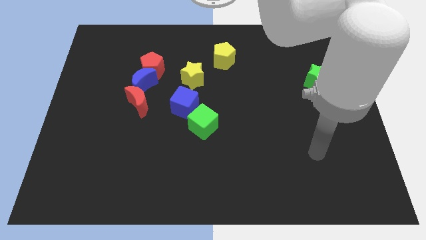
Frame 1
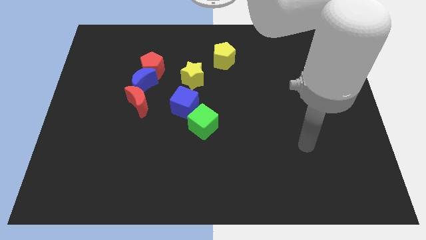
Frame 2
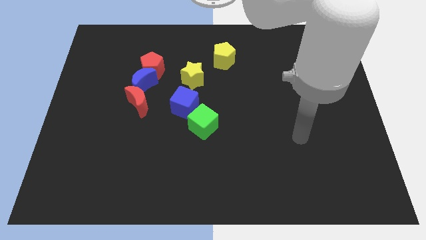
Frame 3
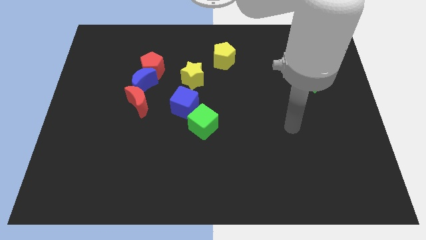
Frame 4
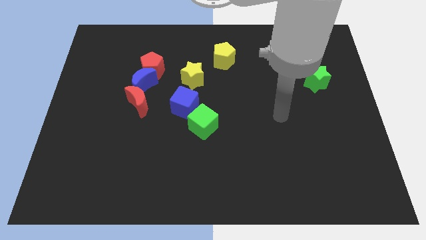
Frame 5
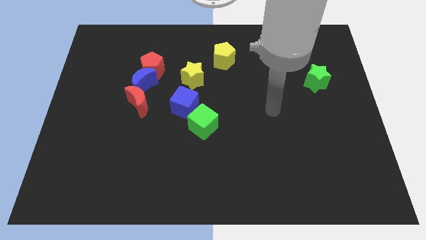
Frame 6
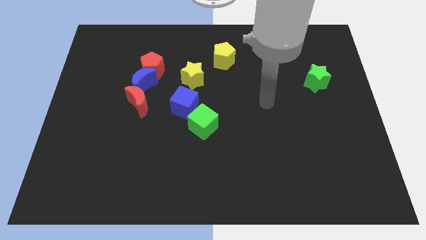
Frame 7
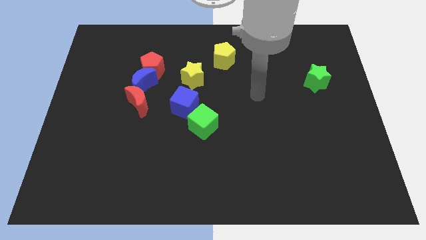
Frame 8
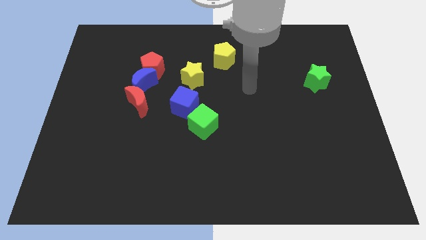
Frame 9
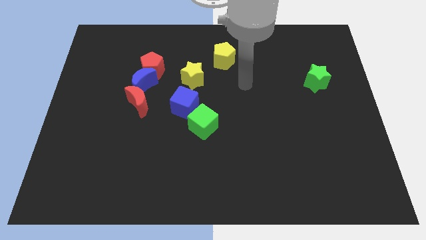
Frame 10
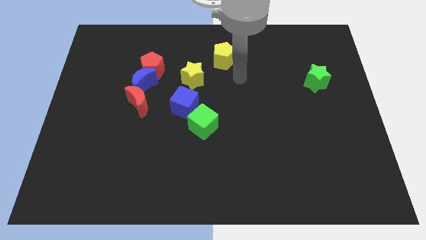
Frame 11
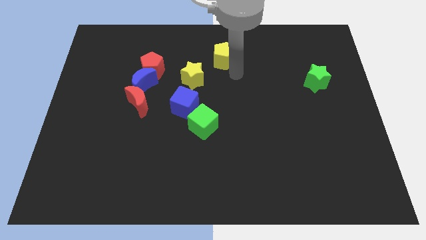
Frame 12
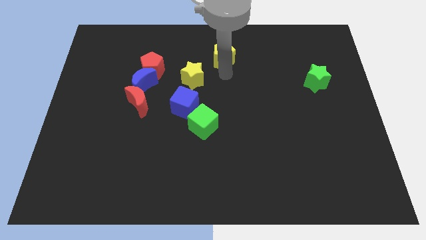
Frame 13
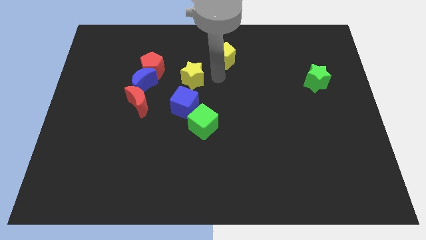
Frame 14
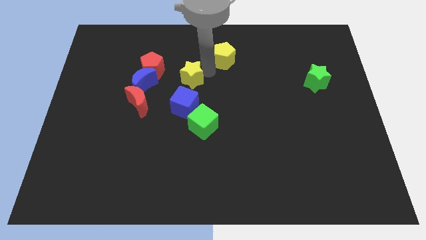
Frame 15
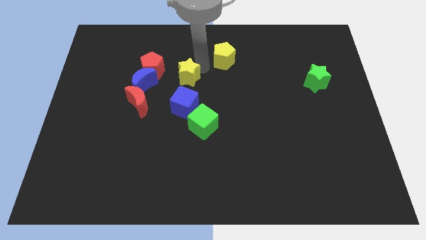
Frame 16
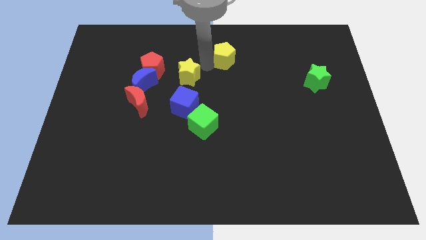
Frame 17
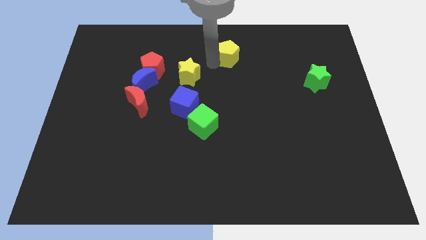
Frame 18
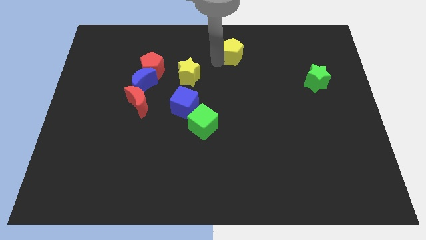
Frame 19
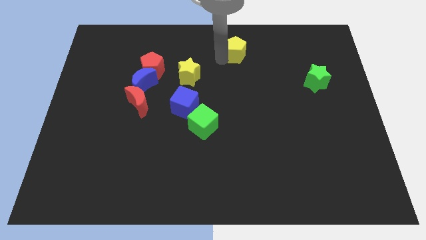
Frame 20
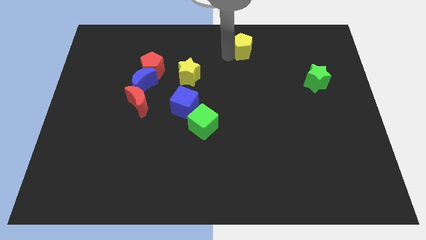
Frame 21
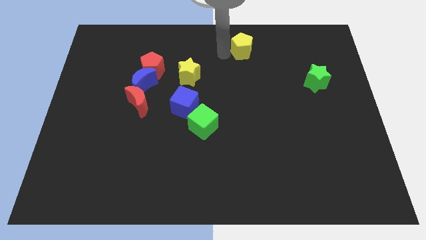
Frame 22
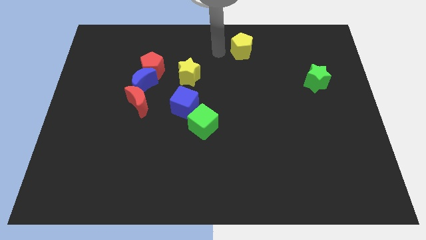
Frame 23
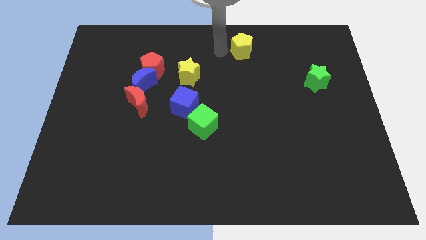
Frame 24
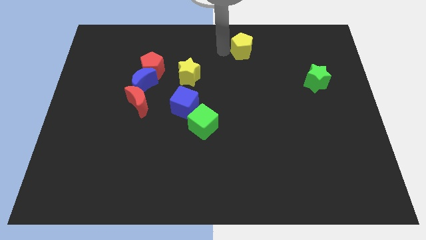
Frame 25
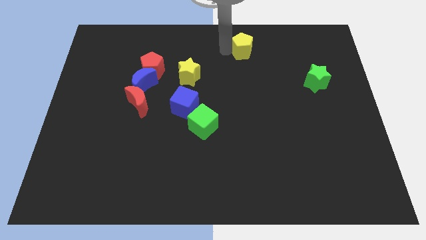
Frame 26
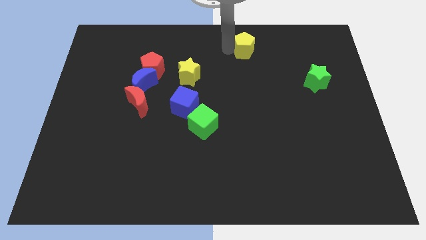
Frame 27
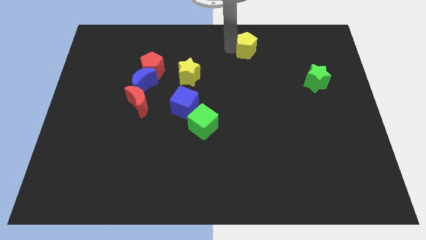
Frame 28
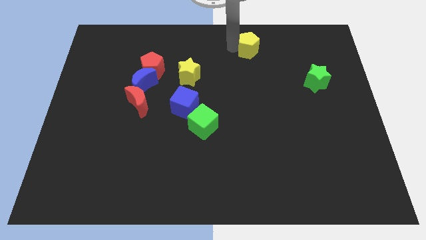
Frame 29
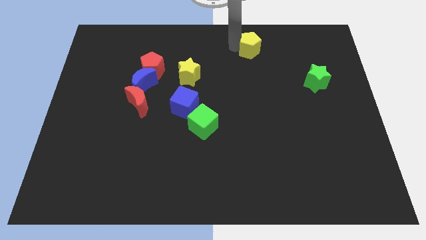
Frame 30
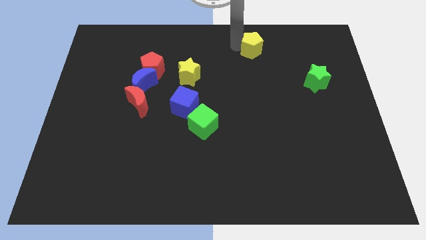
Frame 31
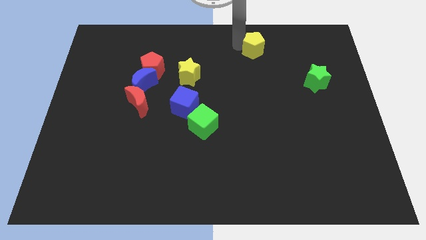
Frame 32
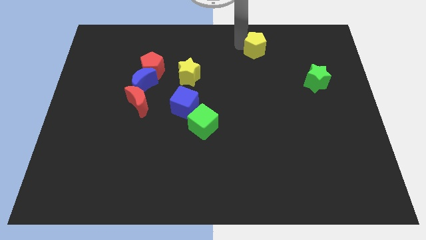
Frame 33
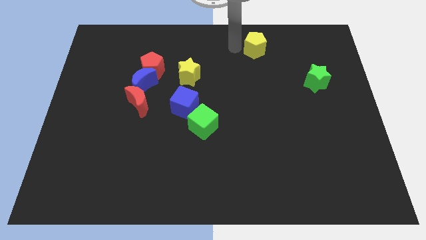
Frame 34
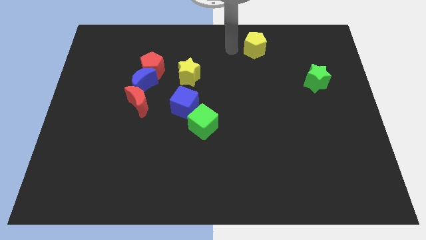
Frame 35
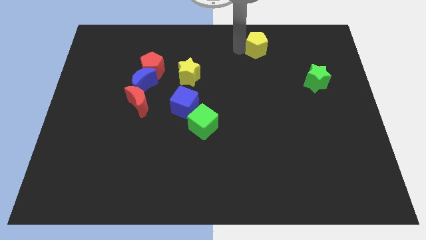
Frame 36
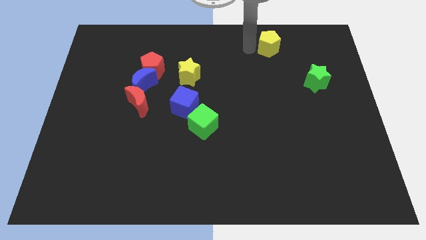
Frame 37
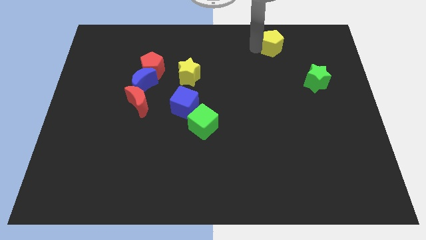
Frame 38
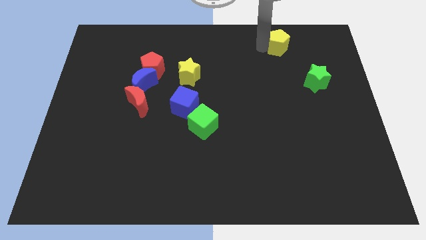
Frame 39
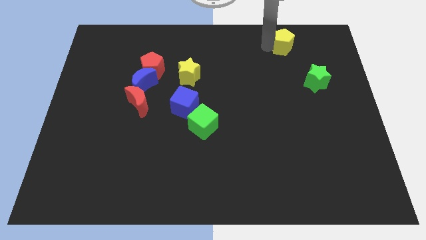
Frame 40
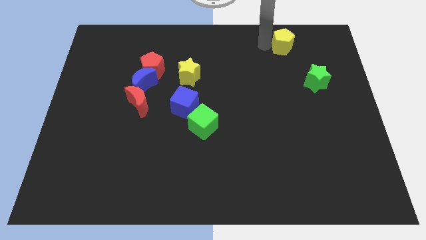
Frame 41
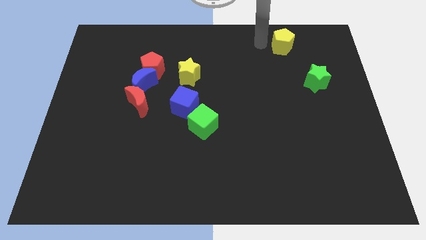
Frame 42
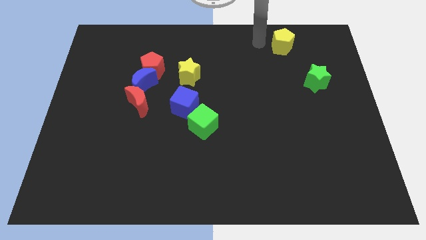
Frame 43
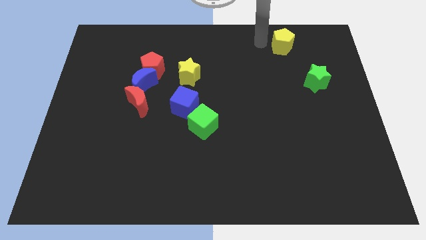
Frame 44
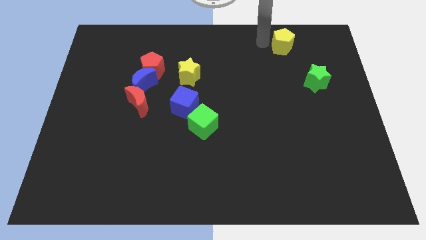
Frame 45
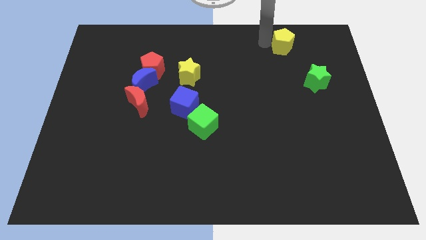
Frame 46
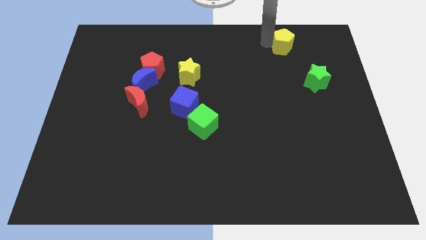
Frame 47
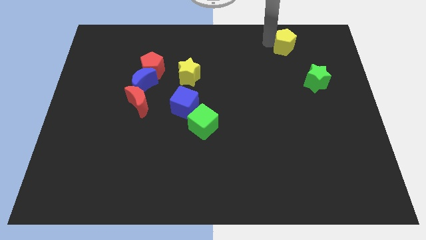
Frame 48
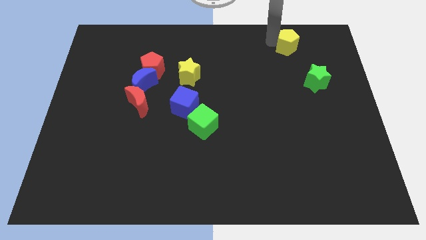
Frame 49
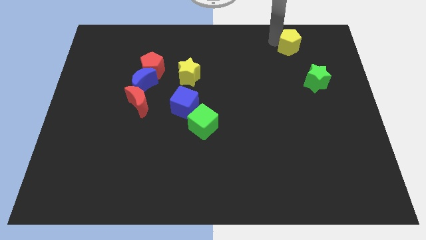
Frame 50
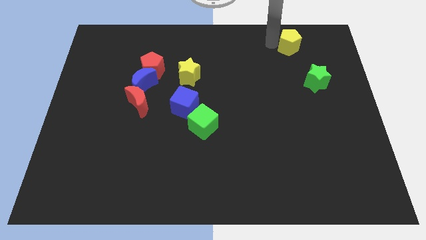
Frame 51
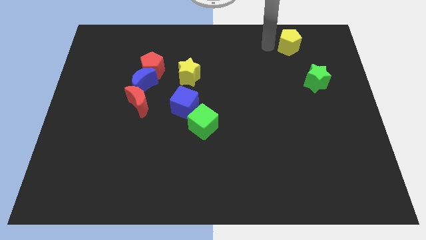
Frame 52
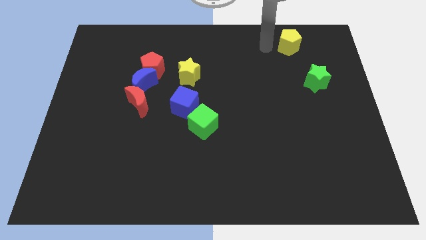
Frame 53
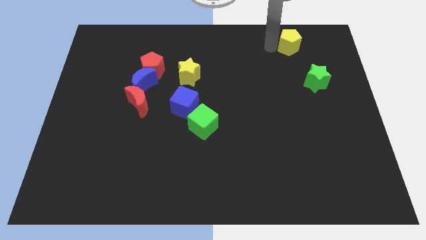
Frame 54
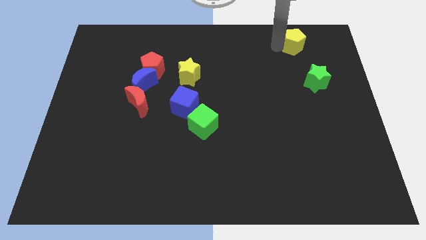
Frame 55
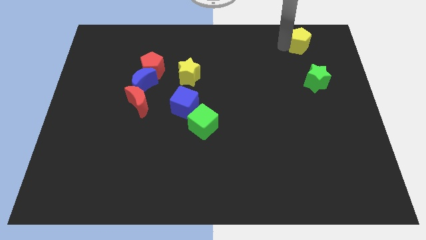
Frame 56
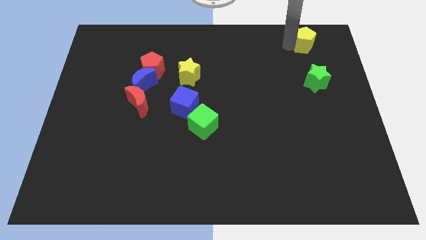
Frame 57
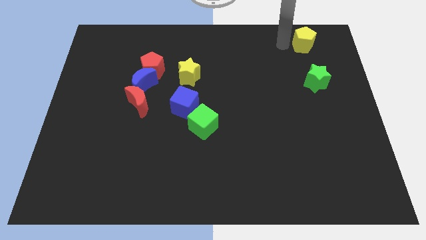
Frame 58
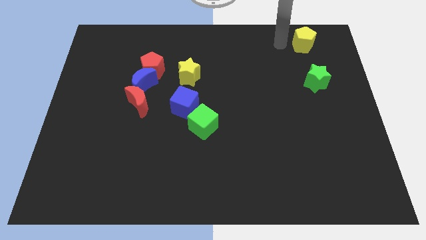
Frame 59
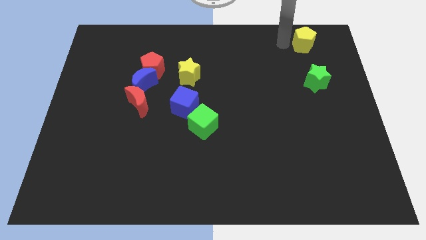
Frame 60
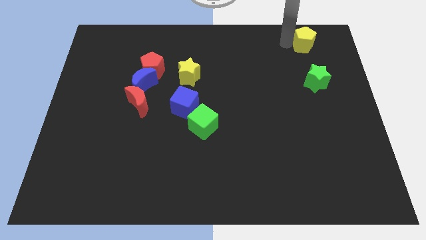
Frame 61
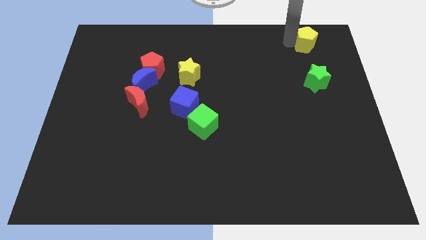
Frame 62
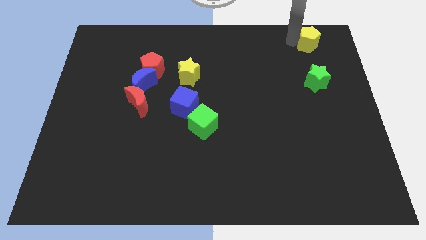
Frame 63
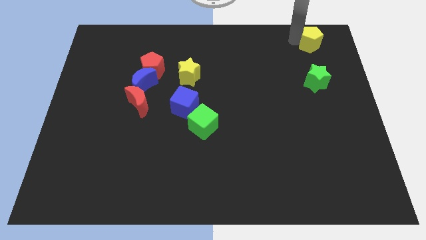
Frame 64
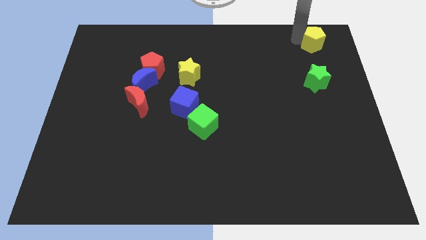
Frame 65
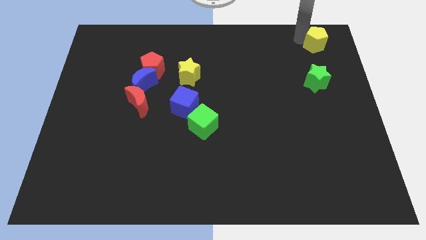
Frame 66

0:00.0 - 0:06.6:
put the yellow pentagon to the top right of the board
